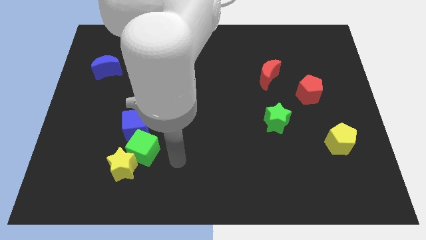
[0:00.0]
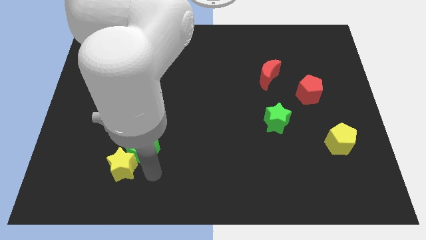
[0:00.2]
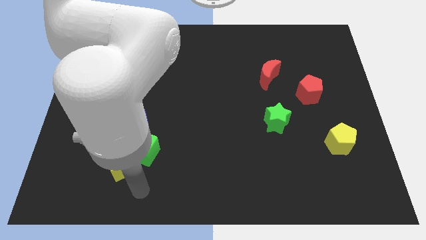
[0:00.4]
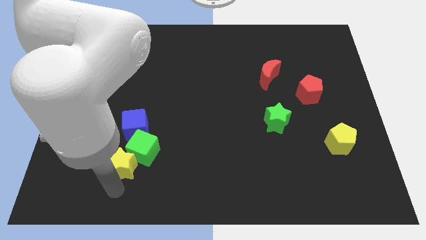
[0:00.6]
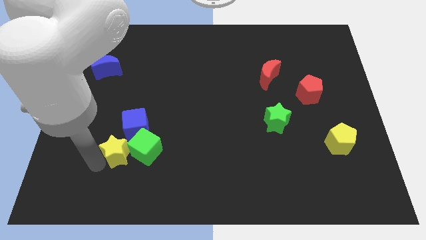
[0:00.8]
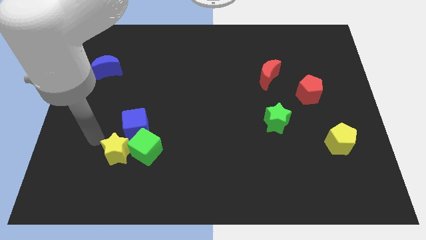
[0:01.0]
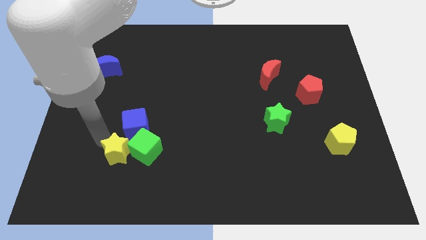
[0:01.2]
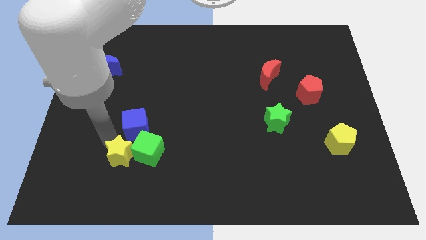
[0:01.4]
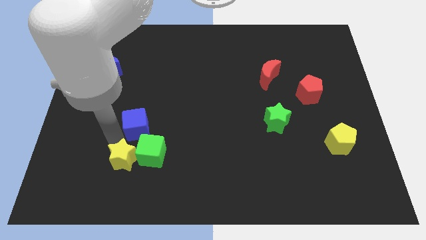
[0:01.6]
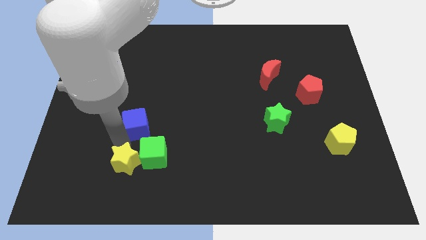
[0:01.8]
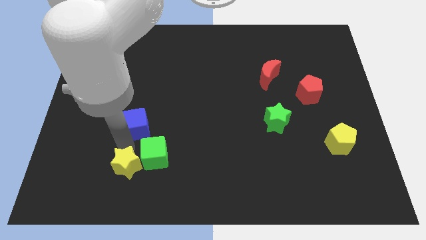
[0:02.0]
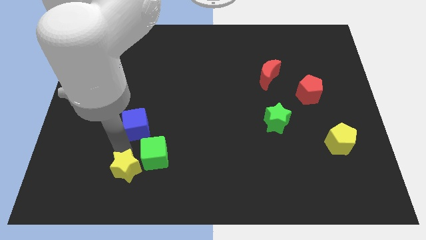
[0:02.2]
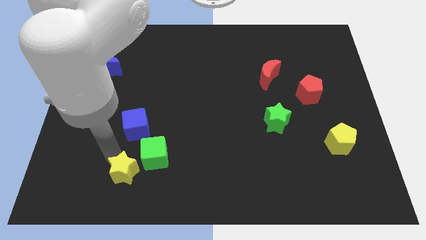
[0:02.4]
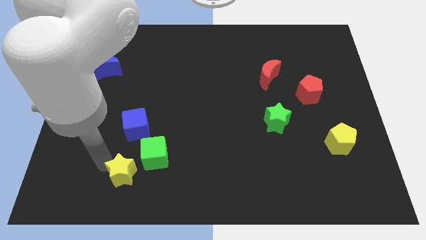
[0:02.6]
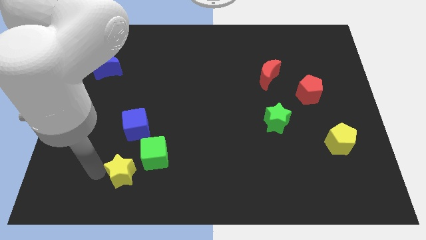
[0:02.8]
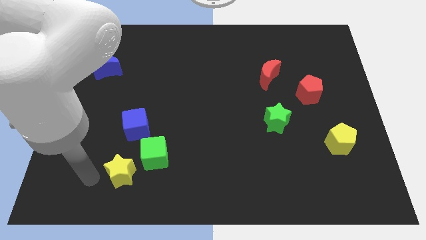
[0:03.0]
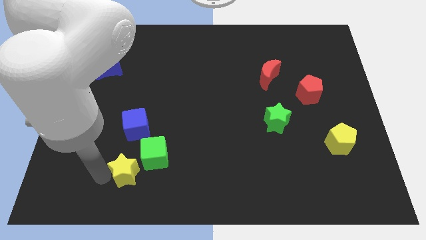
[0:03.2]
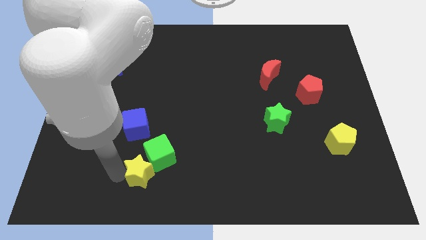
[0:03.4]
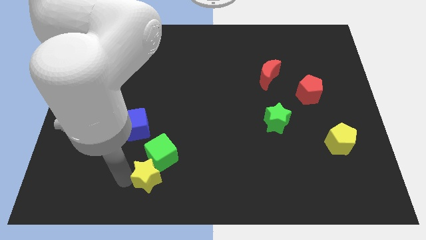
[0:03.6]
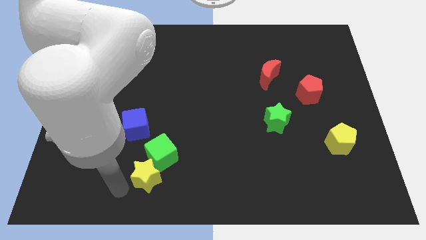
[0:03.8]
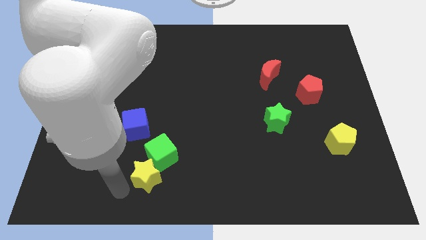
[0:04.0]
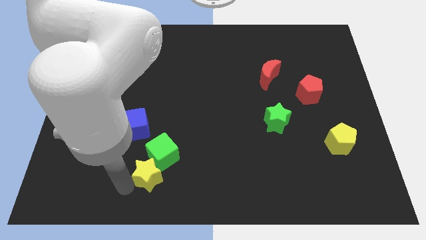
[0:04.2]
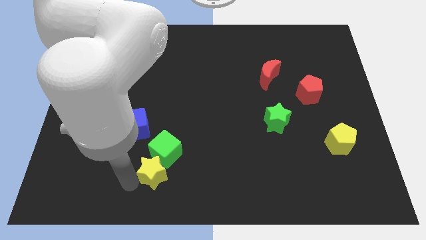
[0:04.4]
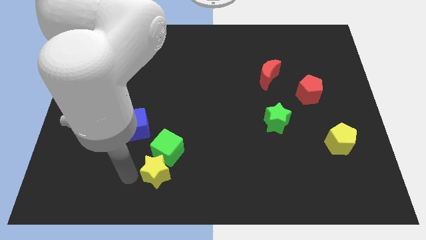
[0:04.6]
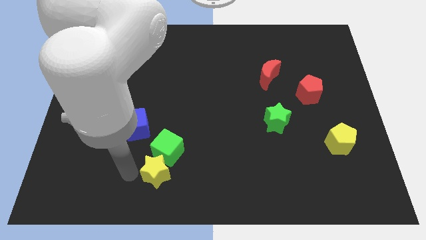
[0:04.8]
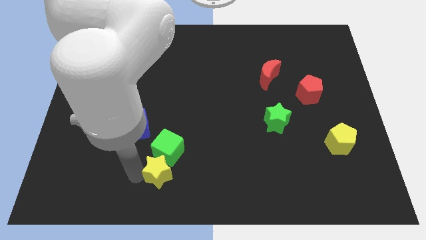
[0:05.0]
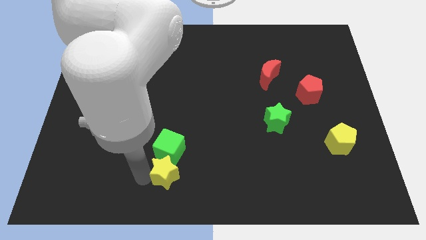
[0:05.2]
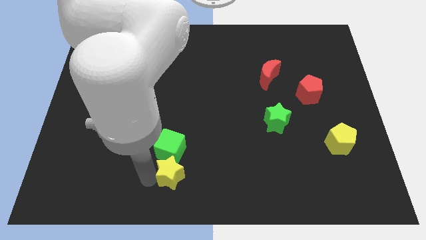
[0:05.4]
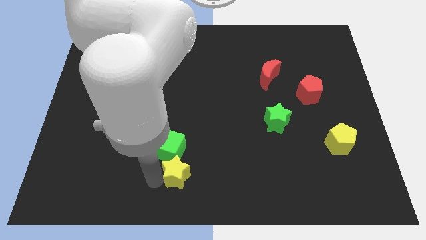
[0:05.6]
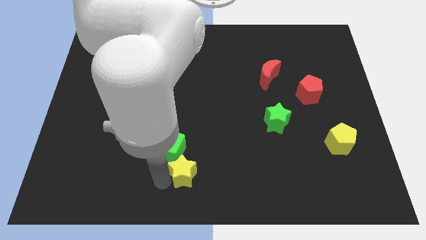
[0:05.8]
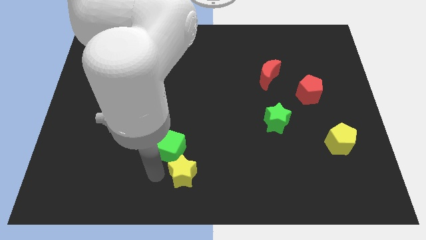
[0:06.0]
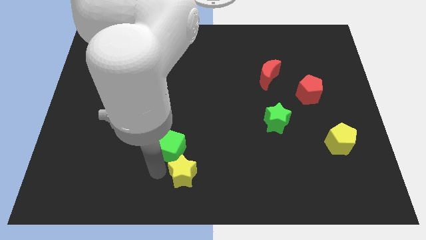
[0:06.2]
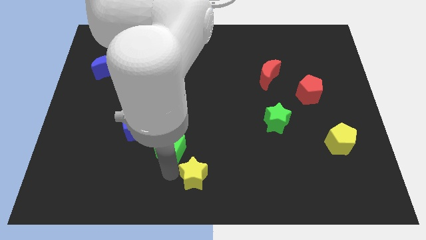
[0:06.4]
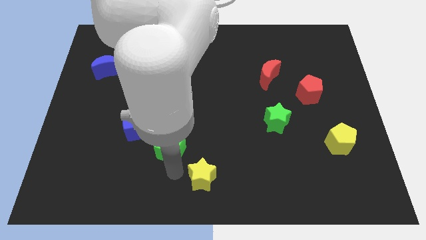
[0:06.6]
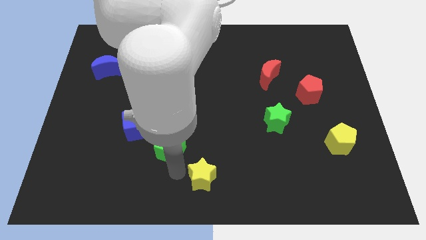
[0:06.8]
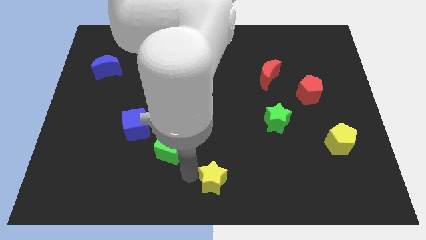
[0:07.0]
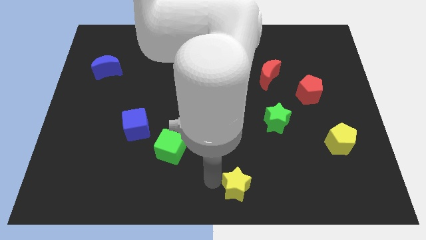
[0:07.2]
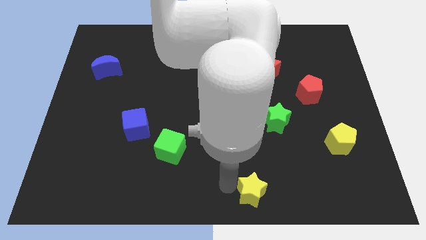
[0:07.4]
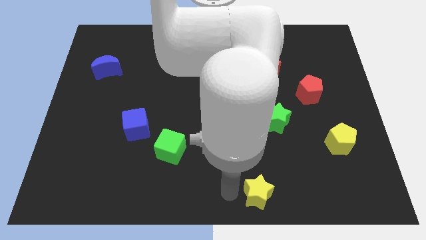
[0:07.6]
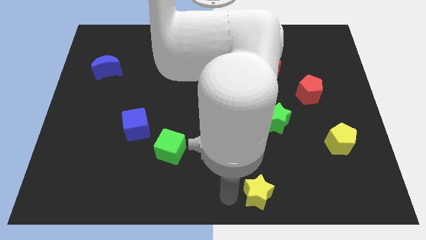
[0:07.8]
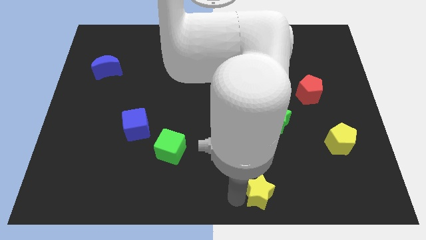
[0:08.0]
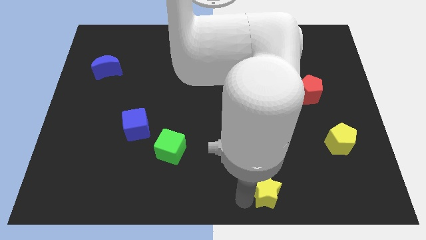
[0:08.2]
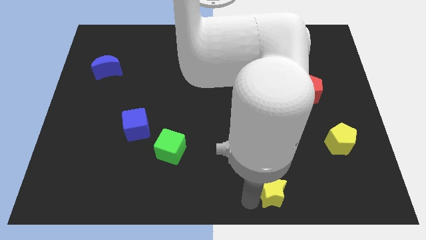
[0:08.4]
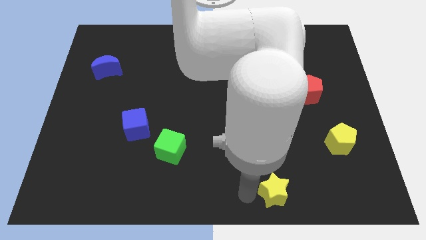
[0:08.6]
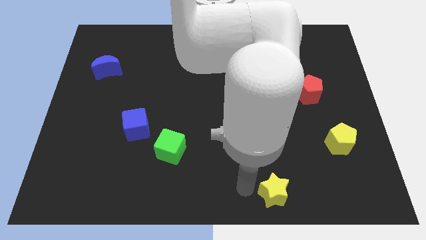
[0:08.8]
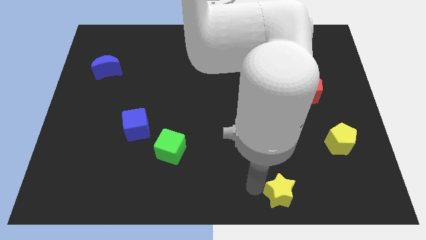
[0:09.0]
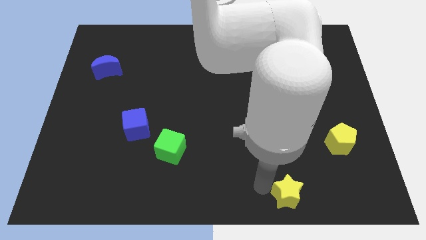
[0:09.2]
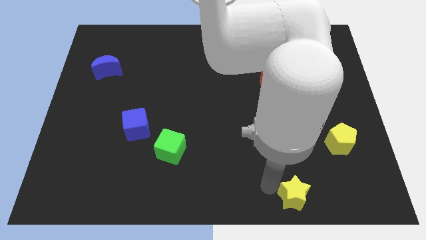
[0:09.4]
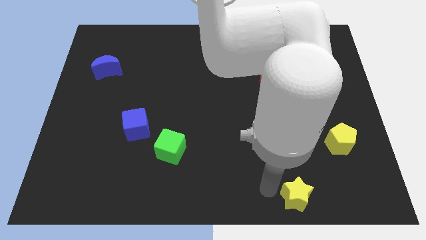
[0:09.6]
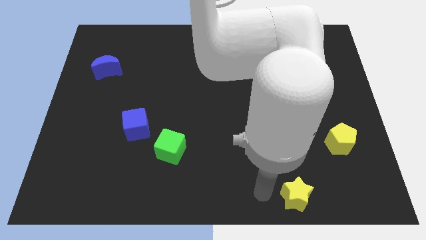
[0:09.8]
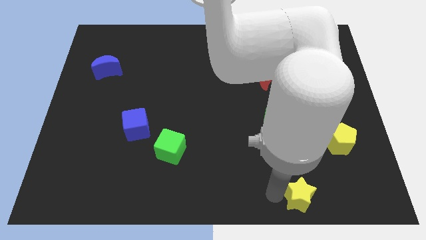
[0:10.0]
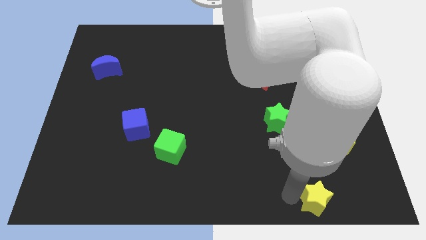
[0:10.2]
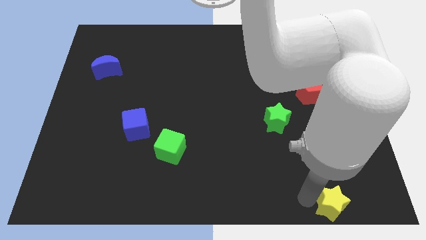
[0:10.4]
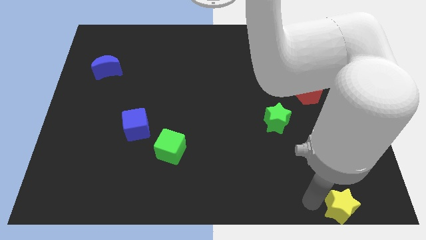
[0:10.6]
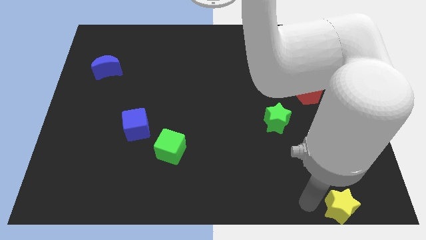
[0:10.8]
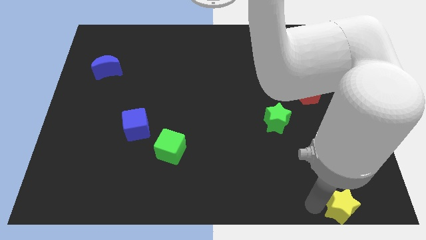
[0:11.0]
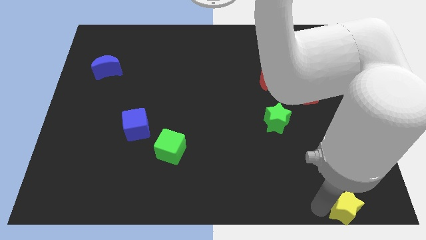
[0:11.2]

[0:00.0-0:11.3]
put the yellow star to the lower right corner
